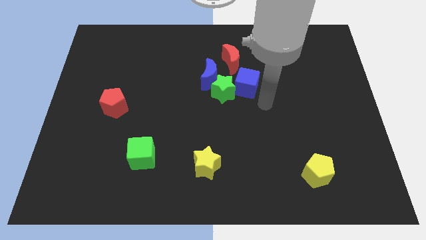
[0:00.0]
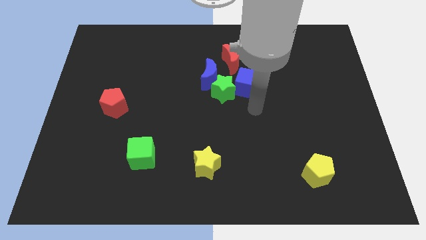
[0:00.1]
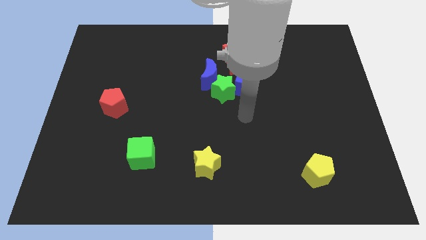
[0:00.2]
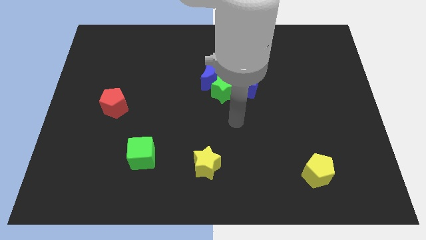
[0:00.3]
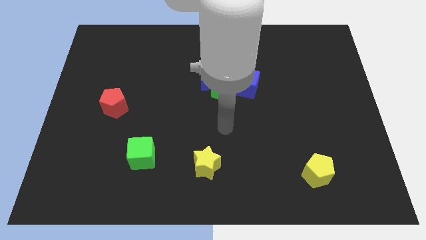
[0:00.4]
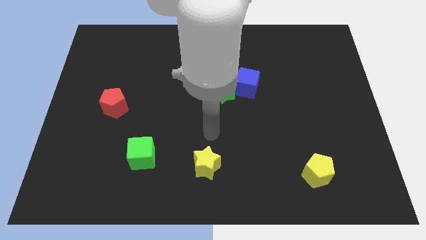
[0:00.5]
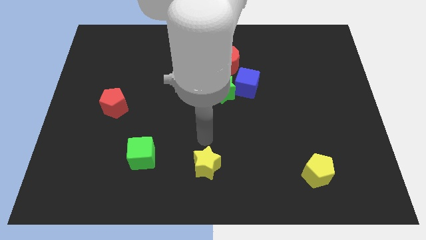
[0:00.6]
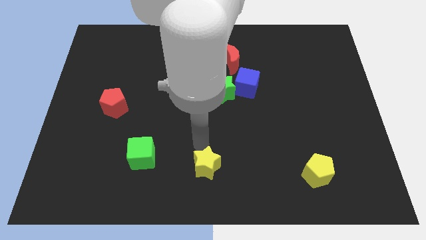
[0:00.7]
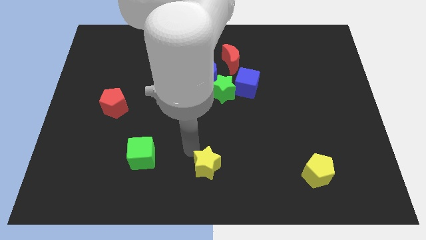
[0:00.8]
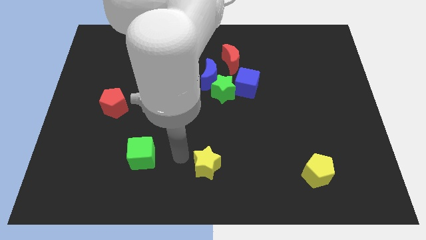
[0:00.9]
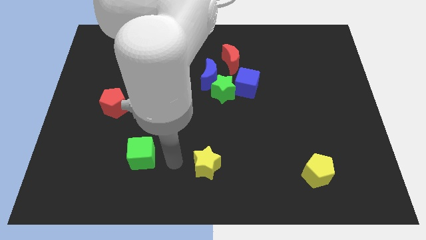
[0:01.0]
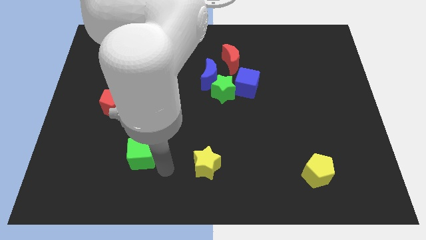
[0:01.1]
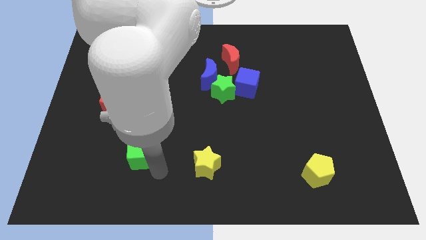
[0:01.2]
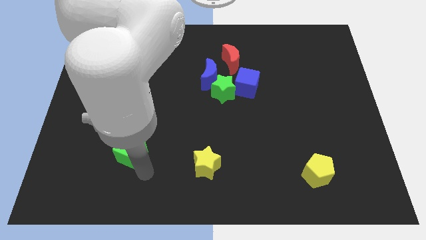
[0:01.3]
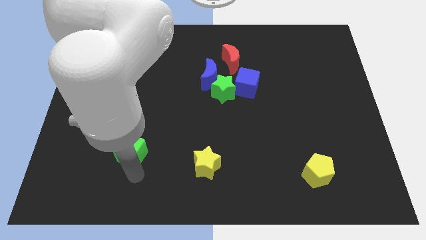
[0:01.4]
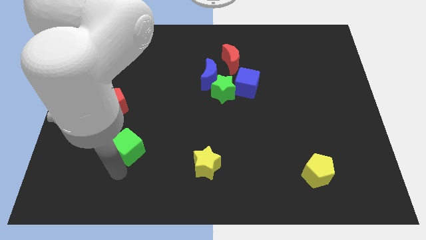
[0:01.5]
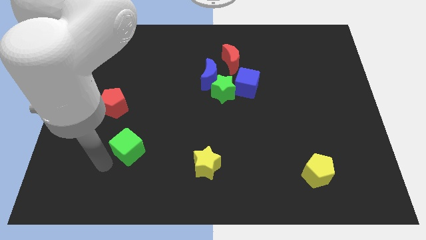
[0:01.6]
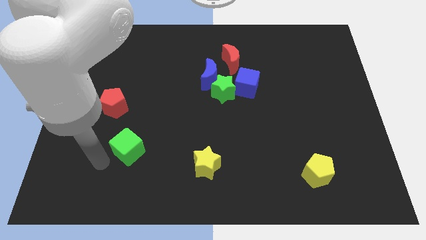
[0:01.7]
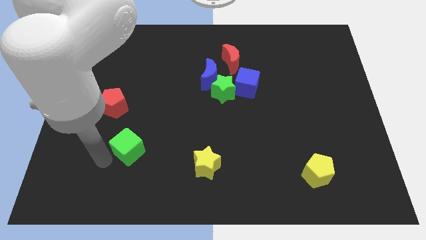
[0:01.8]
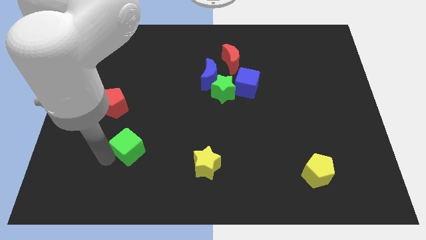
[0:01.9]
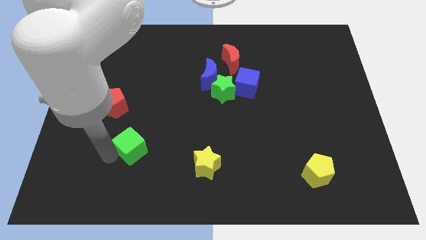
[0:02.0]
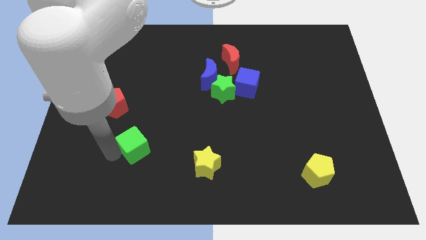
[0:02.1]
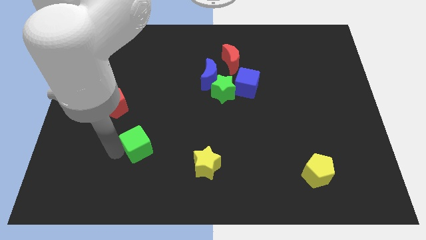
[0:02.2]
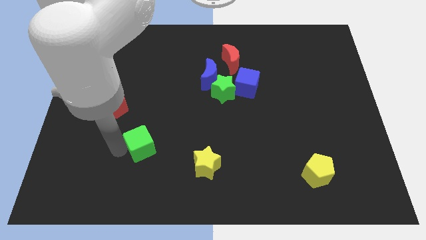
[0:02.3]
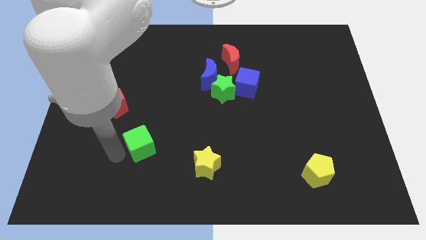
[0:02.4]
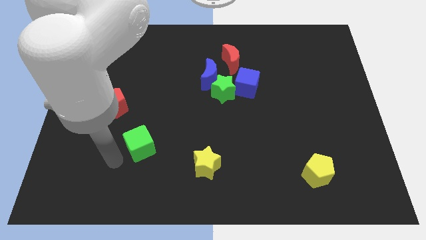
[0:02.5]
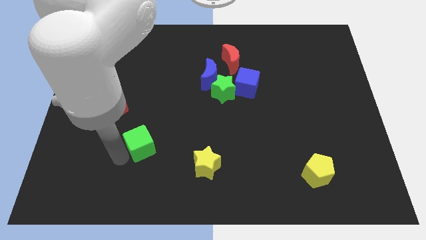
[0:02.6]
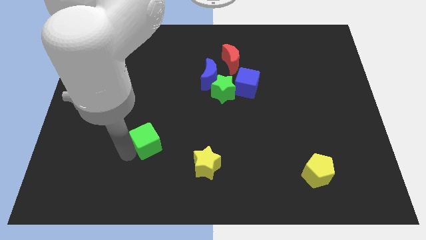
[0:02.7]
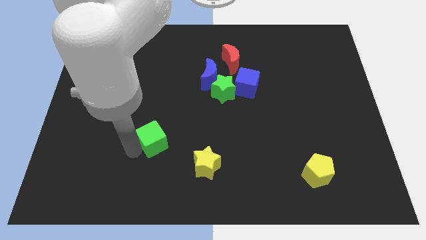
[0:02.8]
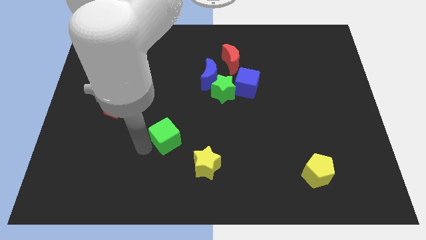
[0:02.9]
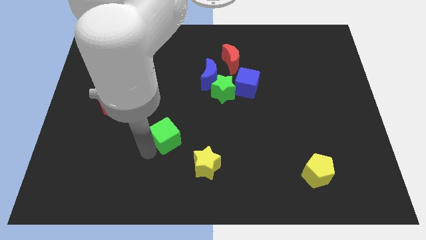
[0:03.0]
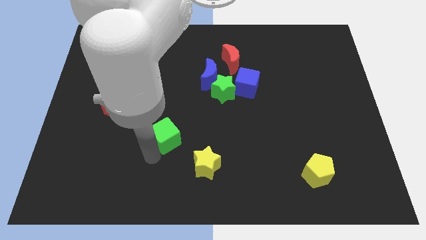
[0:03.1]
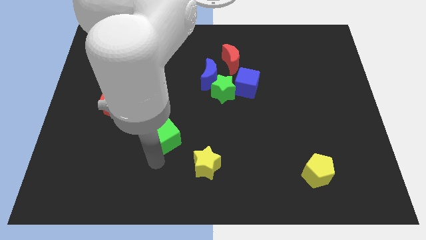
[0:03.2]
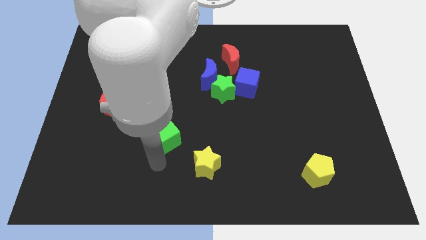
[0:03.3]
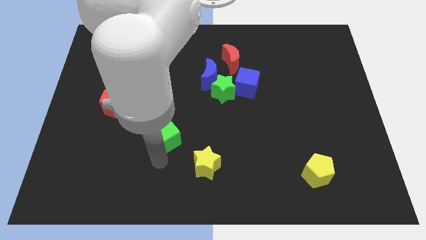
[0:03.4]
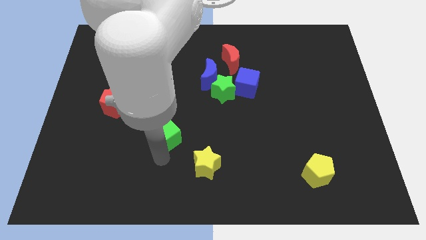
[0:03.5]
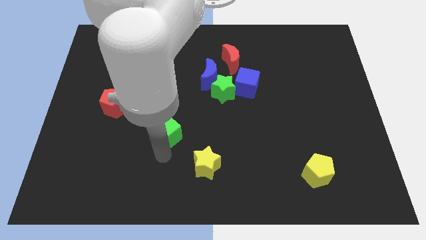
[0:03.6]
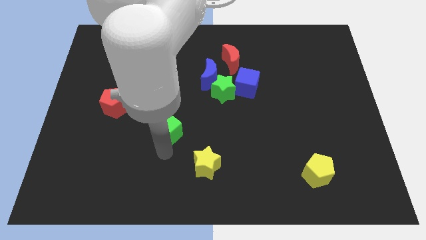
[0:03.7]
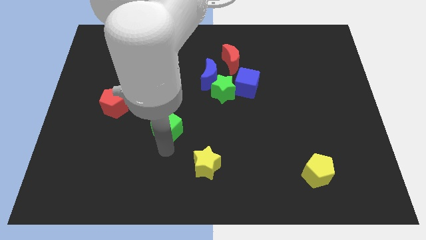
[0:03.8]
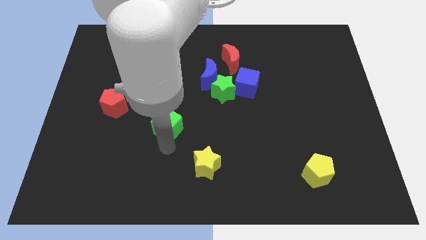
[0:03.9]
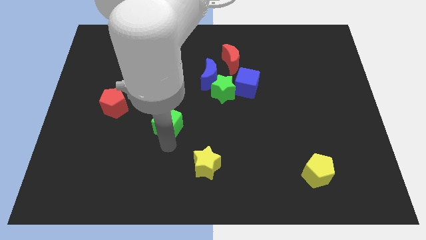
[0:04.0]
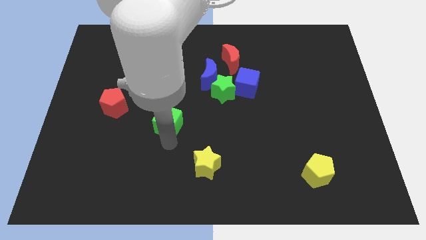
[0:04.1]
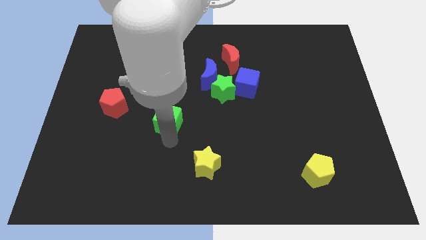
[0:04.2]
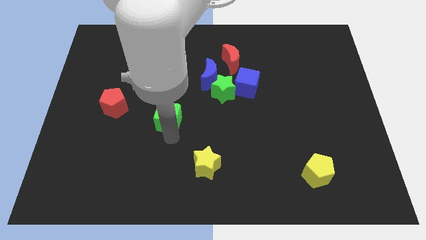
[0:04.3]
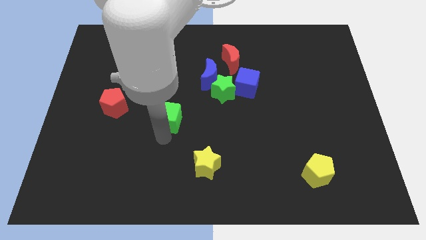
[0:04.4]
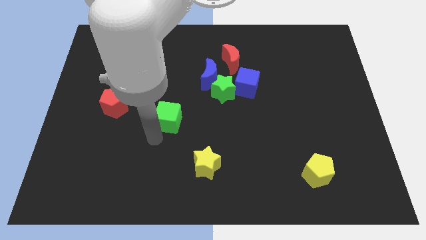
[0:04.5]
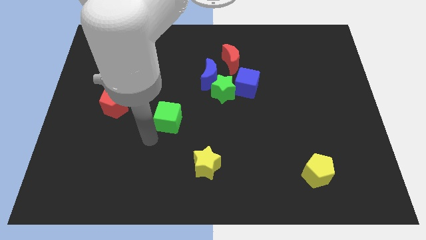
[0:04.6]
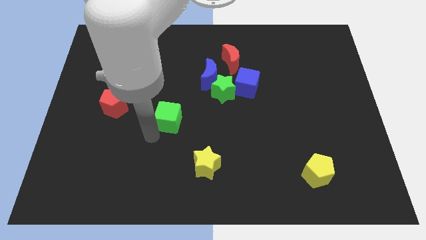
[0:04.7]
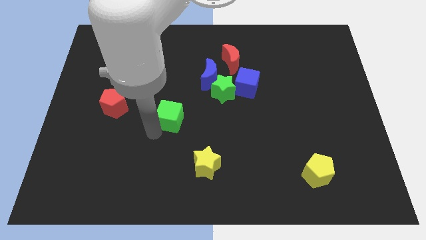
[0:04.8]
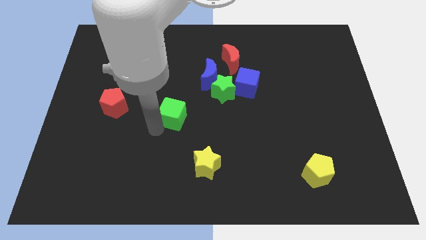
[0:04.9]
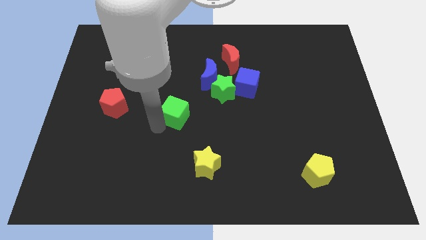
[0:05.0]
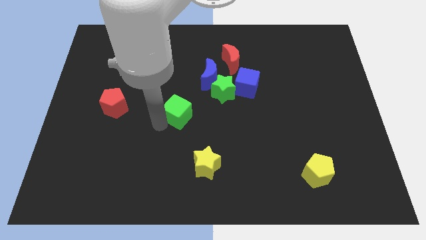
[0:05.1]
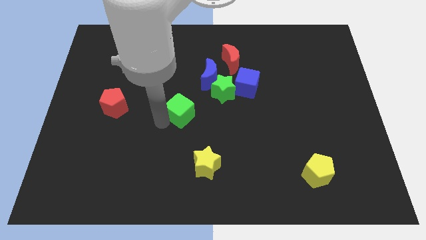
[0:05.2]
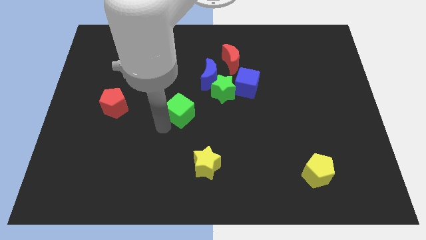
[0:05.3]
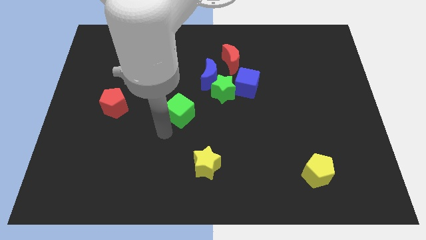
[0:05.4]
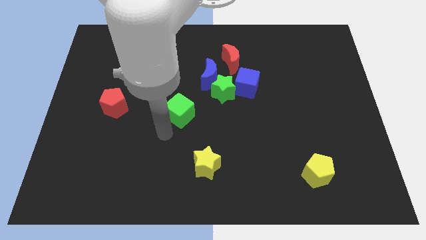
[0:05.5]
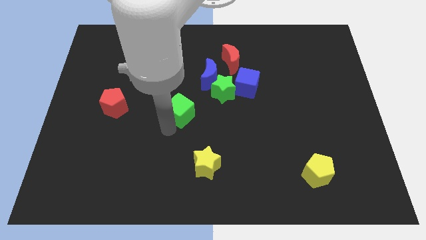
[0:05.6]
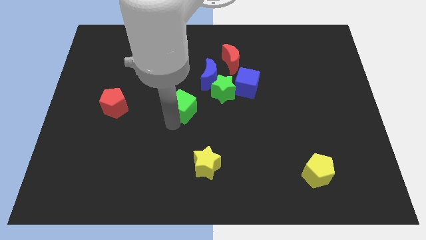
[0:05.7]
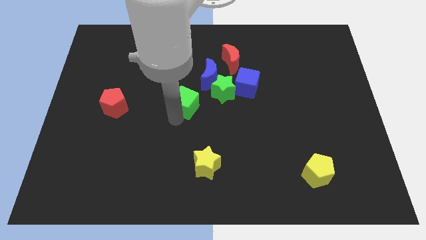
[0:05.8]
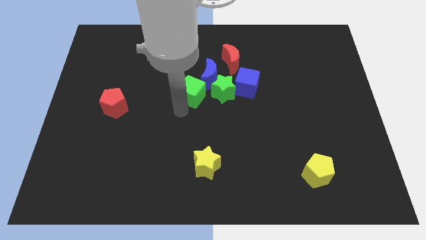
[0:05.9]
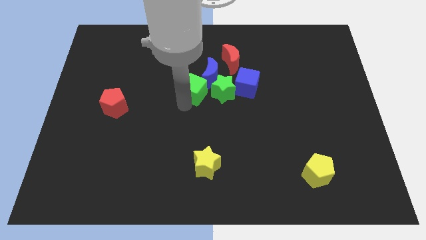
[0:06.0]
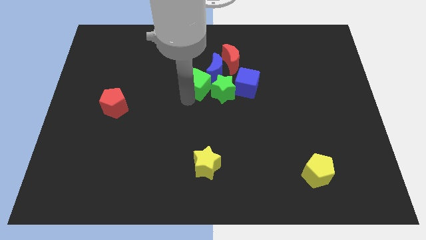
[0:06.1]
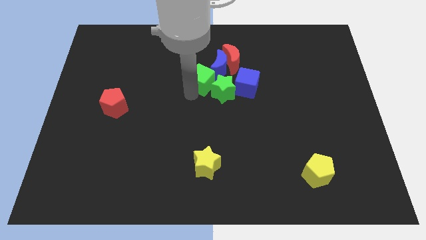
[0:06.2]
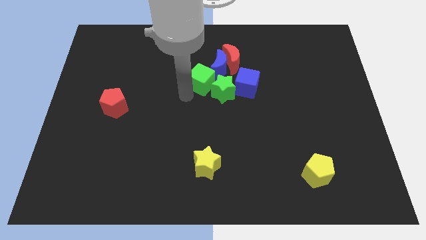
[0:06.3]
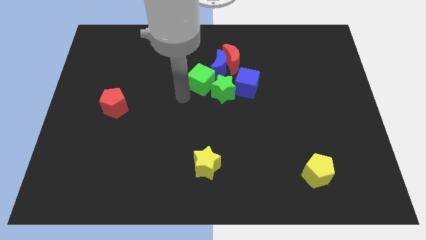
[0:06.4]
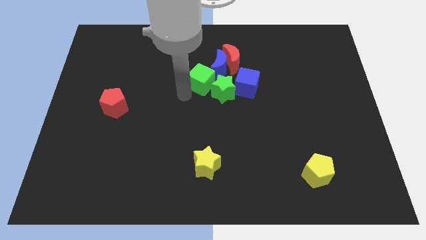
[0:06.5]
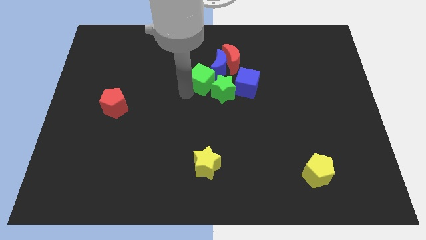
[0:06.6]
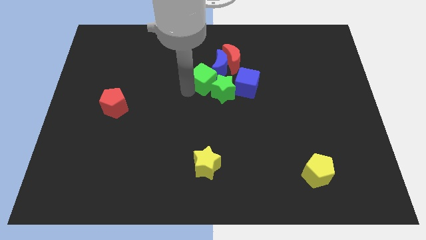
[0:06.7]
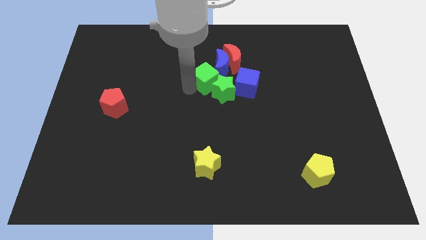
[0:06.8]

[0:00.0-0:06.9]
put the green cube towards the blue moon

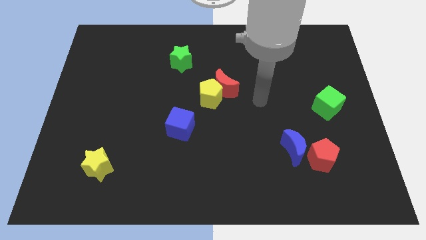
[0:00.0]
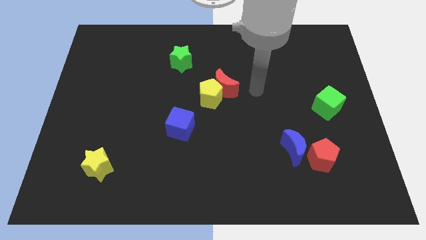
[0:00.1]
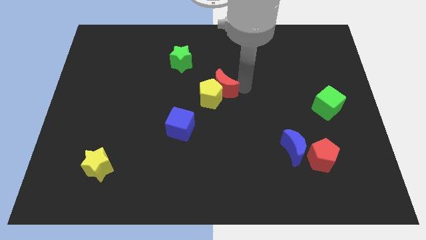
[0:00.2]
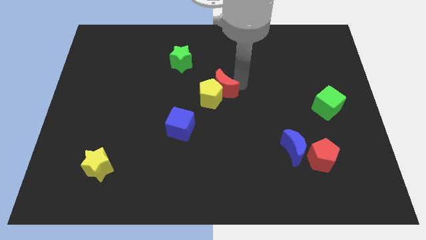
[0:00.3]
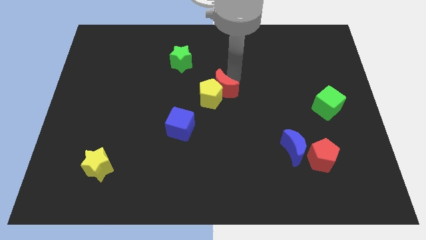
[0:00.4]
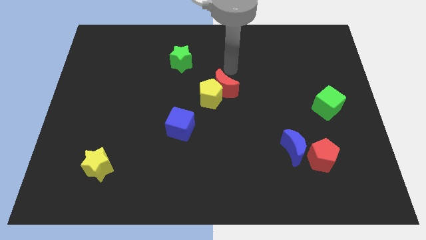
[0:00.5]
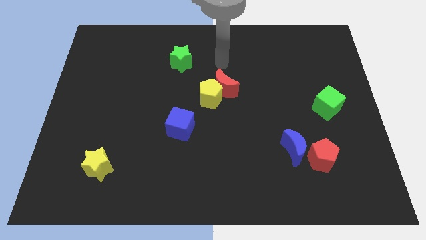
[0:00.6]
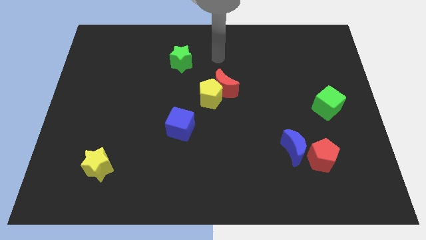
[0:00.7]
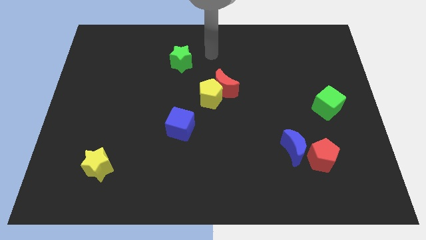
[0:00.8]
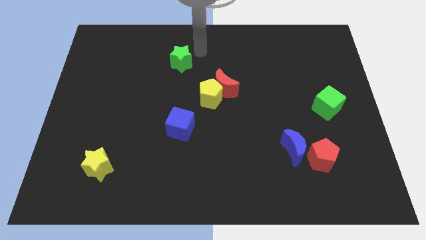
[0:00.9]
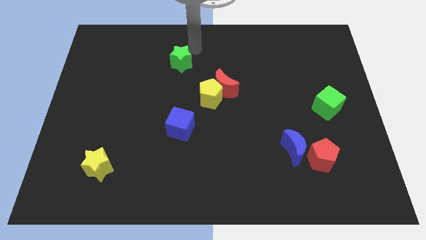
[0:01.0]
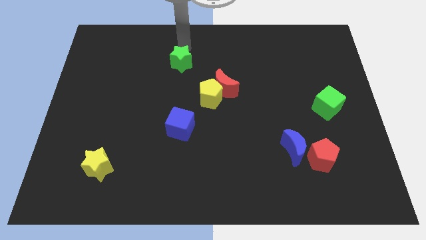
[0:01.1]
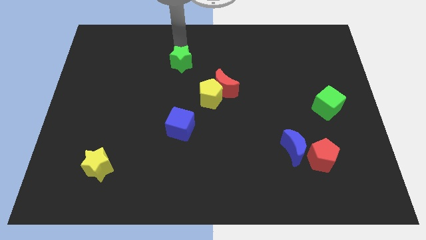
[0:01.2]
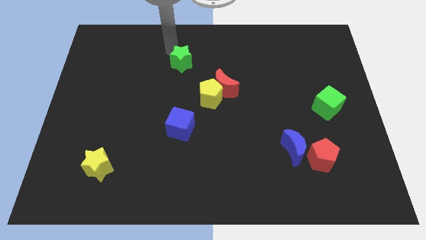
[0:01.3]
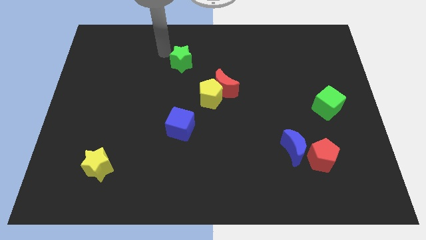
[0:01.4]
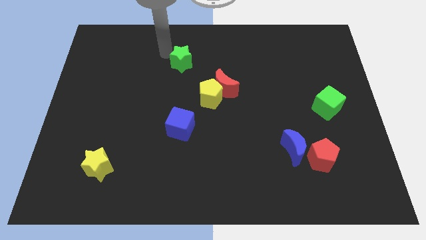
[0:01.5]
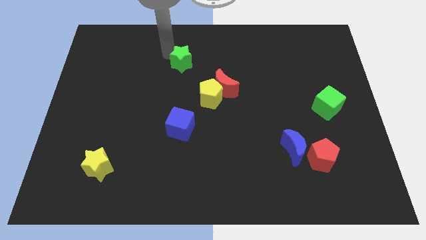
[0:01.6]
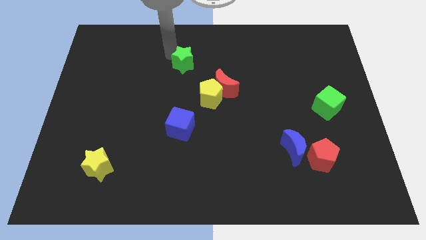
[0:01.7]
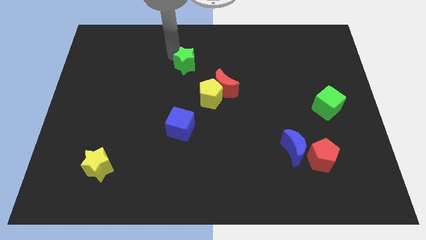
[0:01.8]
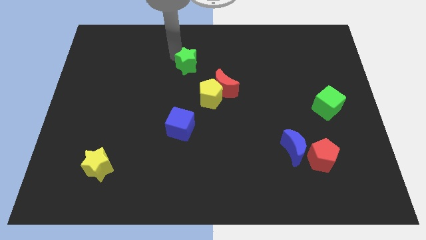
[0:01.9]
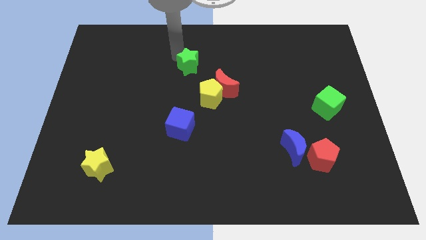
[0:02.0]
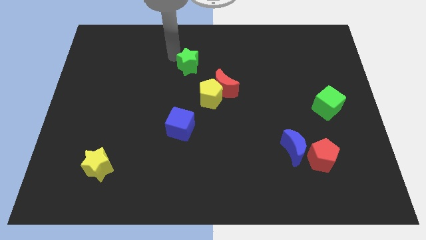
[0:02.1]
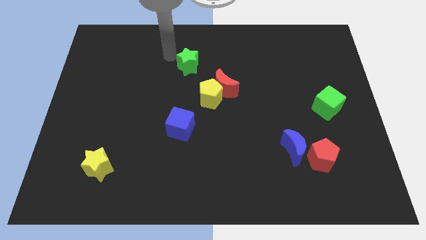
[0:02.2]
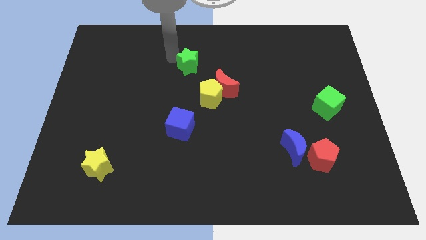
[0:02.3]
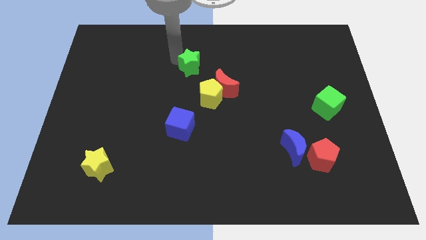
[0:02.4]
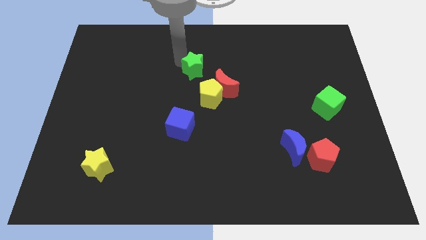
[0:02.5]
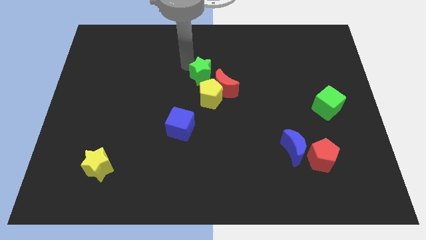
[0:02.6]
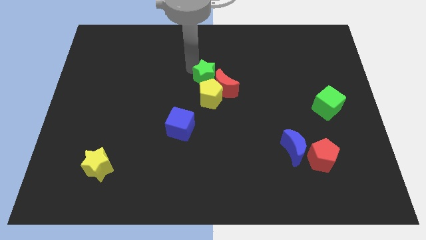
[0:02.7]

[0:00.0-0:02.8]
put the green star close to the red moon
